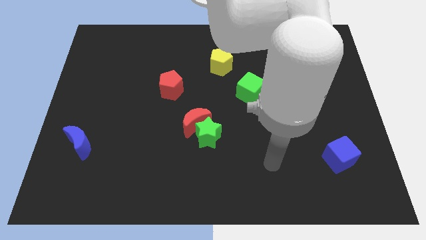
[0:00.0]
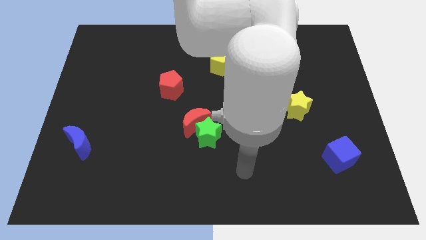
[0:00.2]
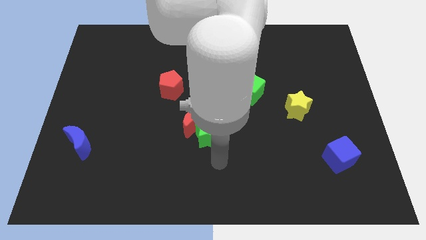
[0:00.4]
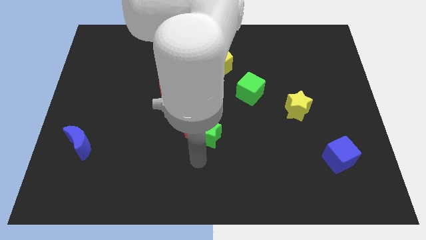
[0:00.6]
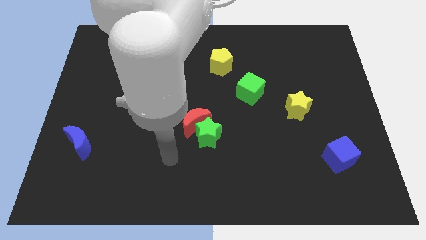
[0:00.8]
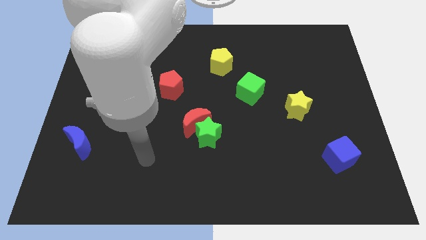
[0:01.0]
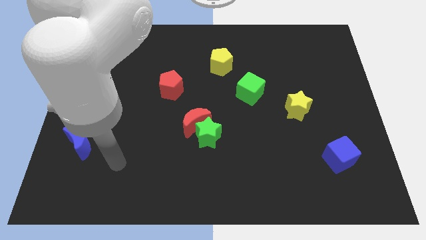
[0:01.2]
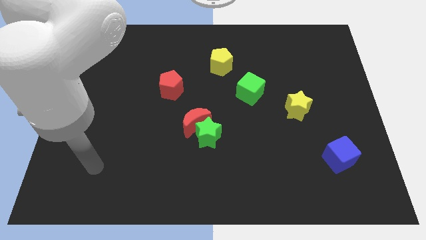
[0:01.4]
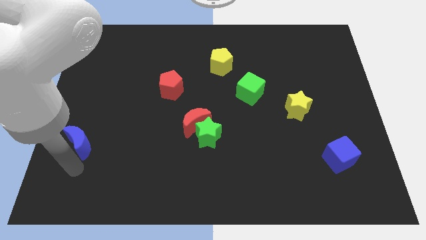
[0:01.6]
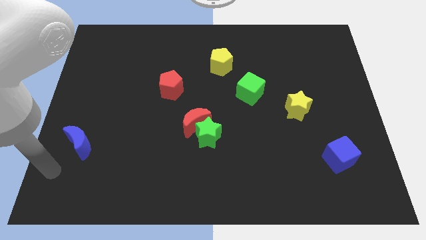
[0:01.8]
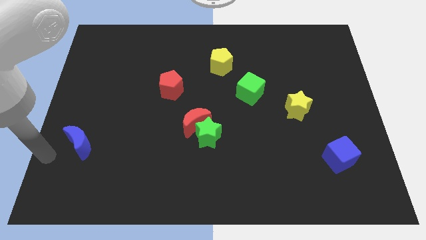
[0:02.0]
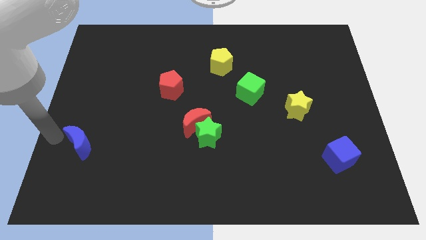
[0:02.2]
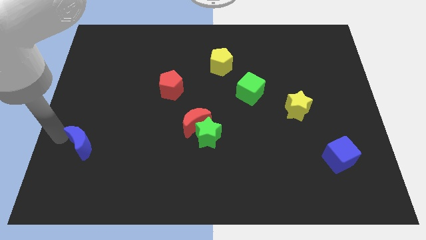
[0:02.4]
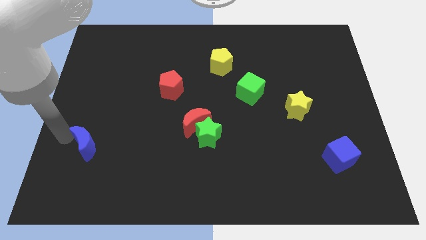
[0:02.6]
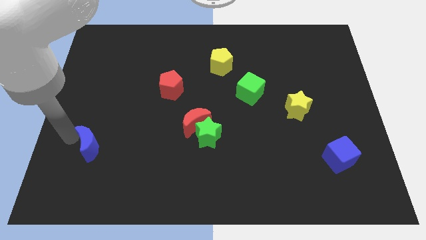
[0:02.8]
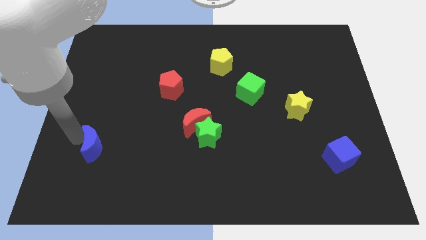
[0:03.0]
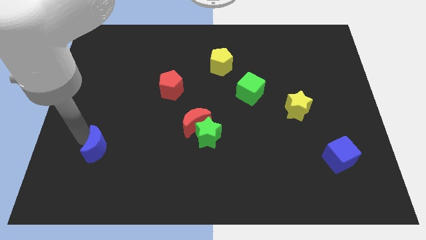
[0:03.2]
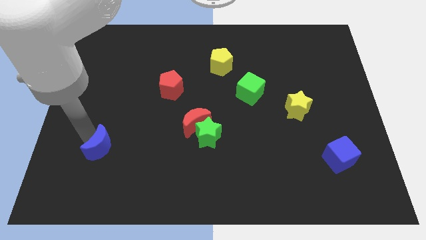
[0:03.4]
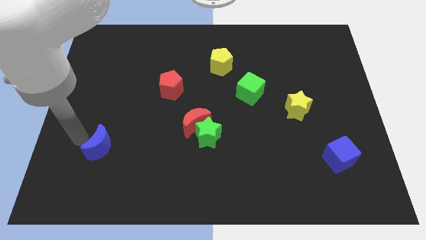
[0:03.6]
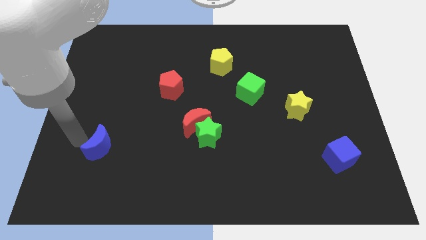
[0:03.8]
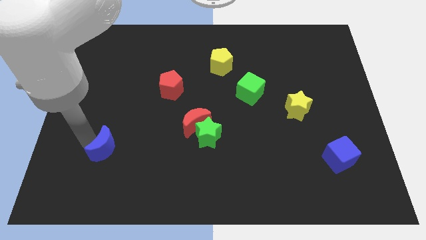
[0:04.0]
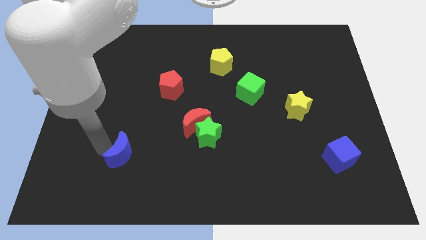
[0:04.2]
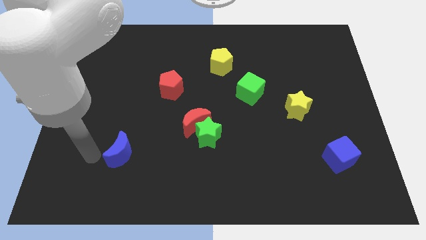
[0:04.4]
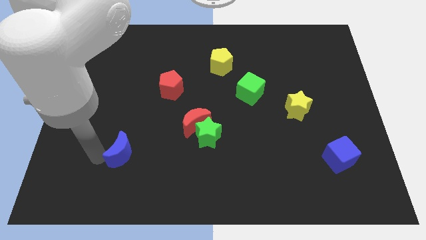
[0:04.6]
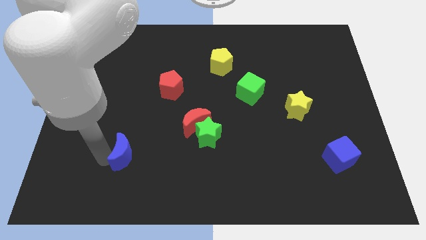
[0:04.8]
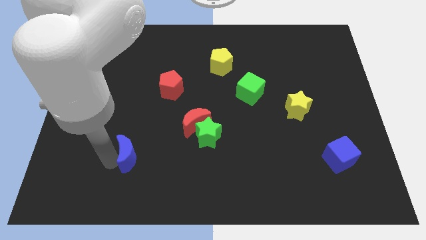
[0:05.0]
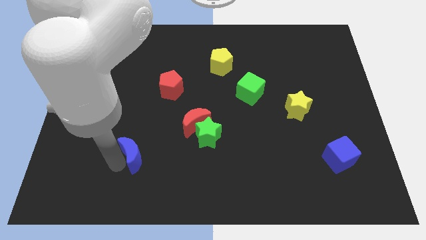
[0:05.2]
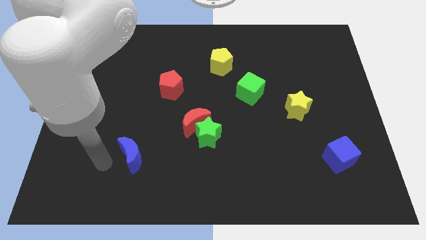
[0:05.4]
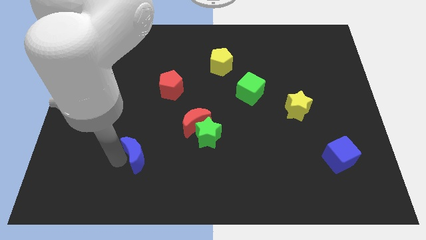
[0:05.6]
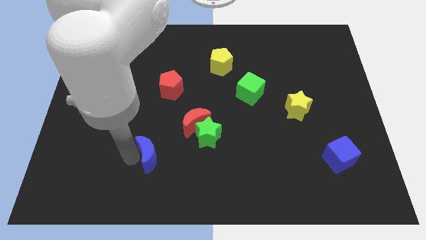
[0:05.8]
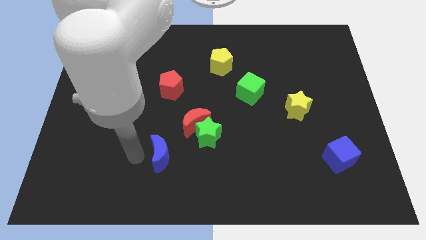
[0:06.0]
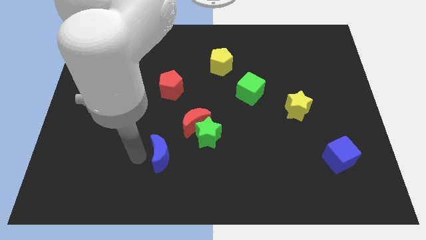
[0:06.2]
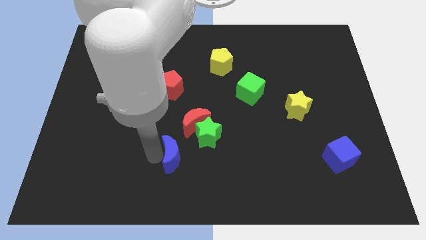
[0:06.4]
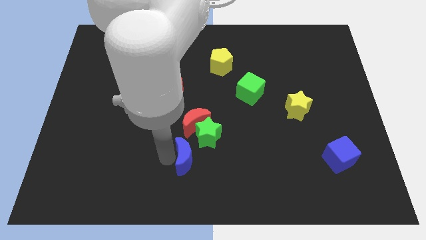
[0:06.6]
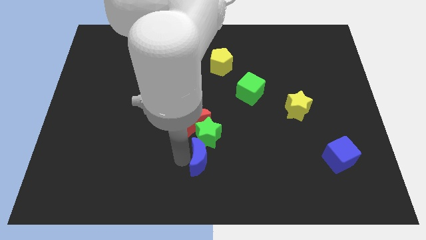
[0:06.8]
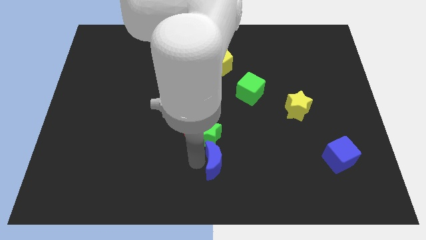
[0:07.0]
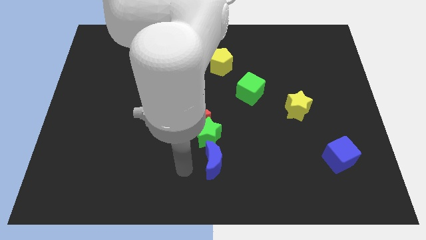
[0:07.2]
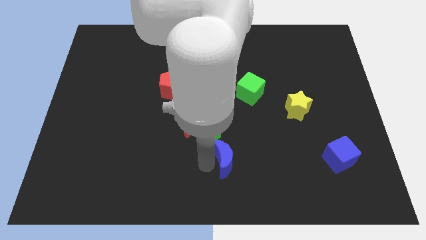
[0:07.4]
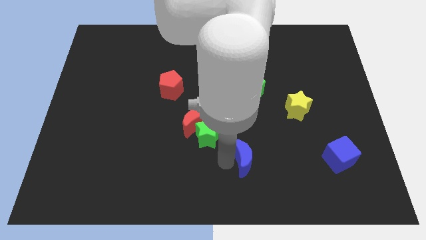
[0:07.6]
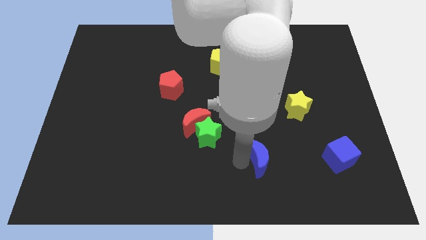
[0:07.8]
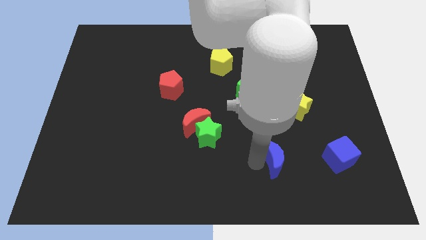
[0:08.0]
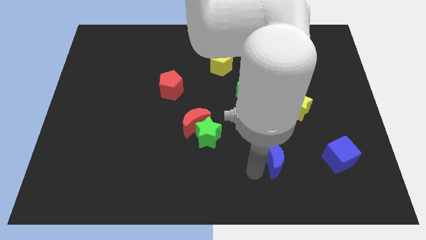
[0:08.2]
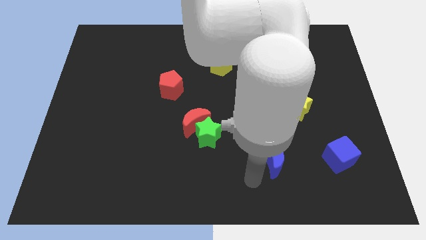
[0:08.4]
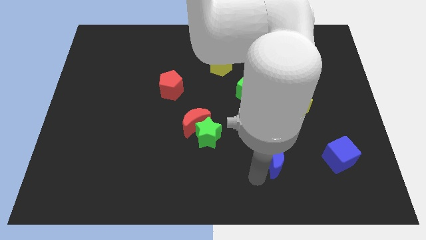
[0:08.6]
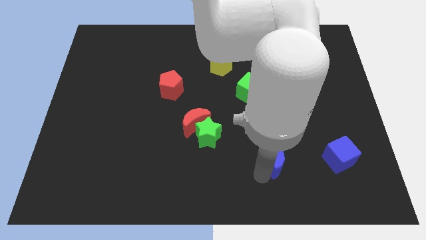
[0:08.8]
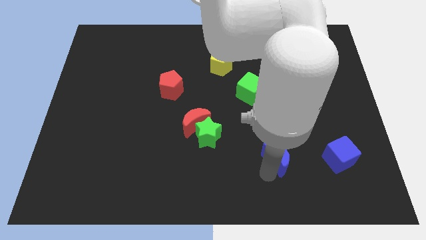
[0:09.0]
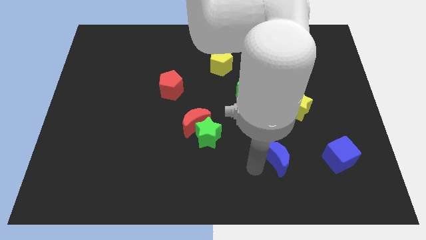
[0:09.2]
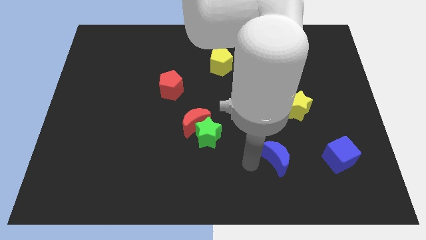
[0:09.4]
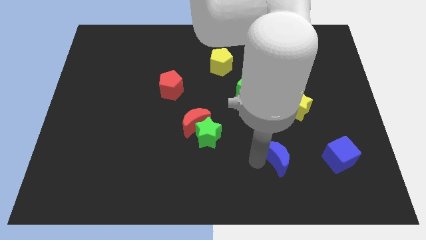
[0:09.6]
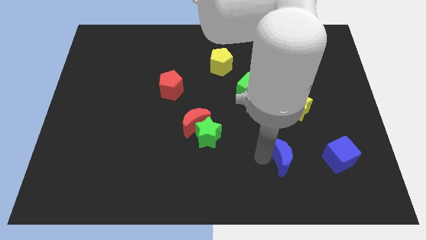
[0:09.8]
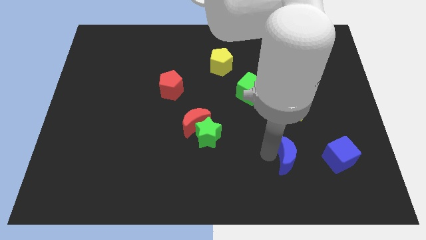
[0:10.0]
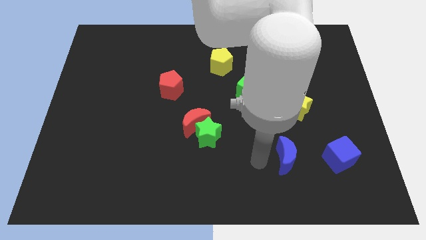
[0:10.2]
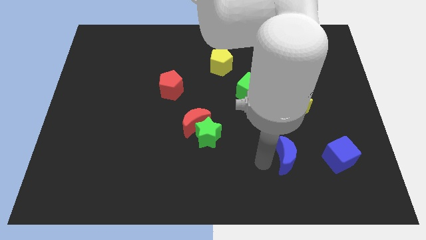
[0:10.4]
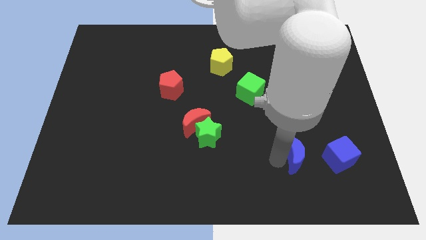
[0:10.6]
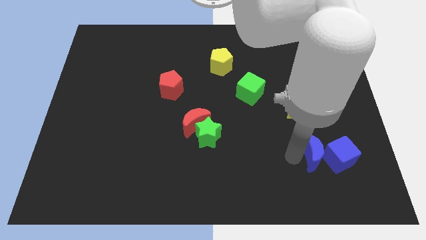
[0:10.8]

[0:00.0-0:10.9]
push the blue moon to the blue cube

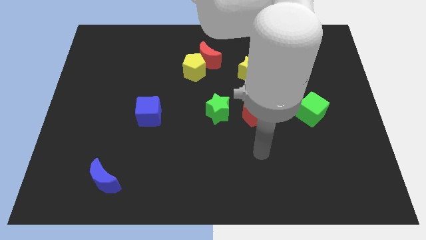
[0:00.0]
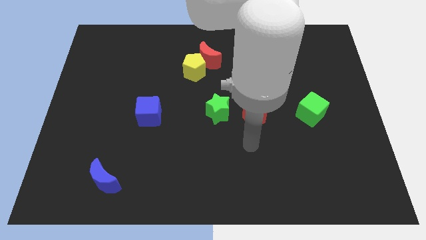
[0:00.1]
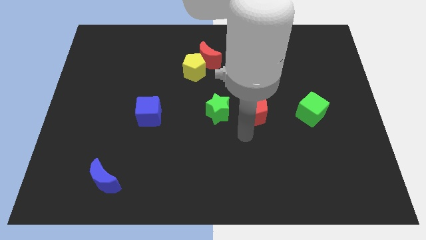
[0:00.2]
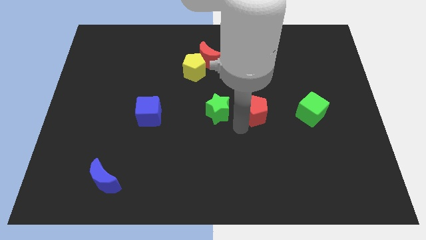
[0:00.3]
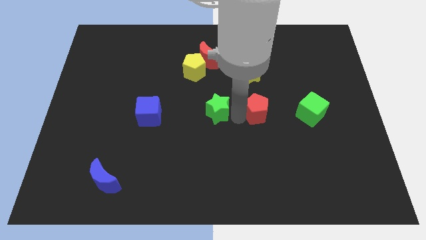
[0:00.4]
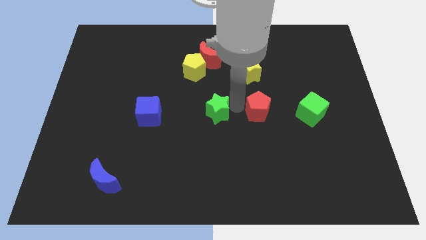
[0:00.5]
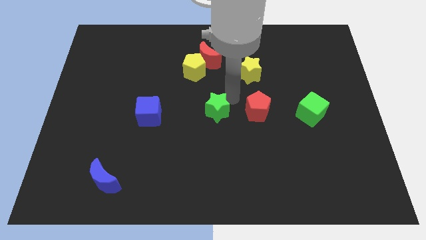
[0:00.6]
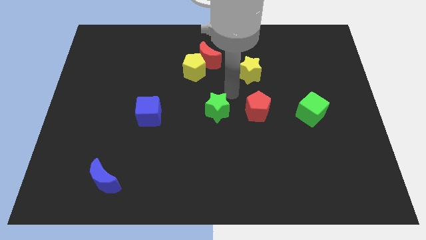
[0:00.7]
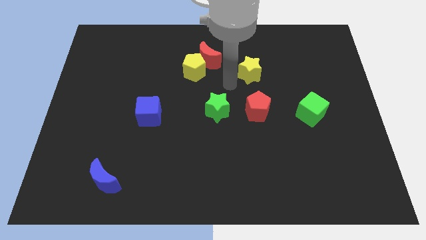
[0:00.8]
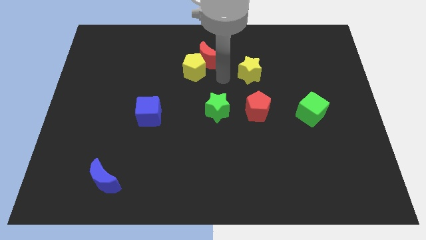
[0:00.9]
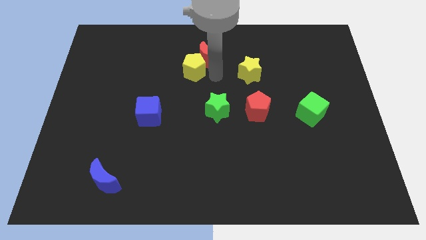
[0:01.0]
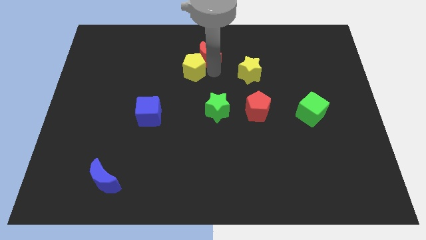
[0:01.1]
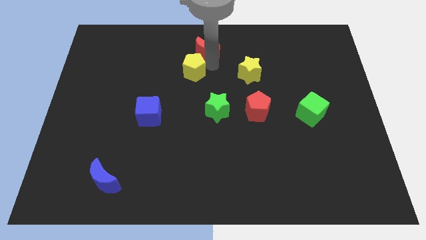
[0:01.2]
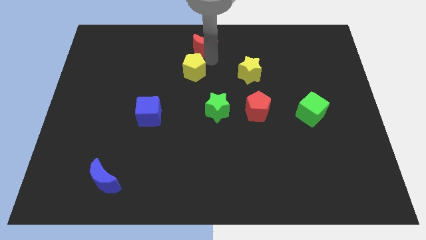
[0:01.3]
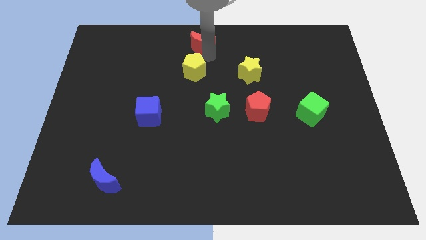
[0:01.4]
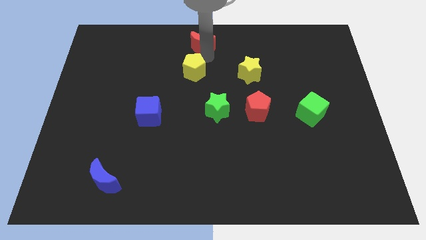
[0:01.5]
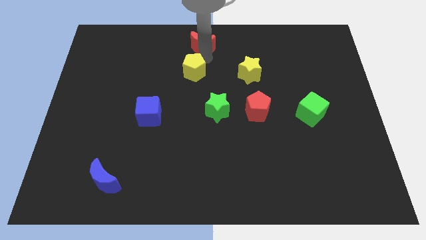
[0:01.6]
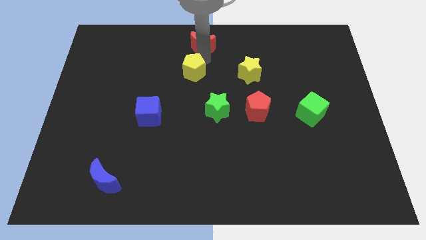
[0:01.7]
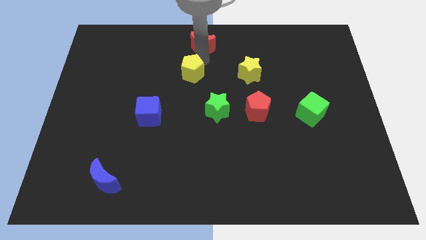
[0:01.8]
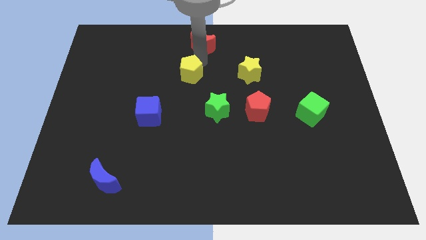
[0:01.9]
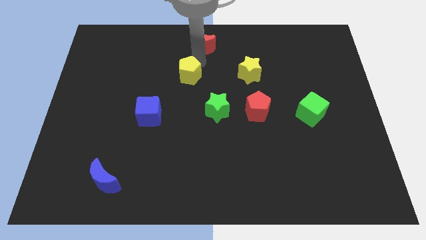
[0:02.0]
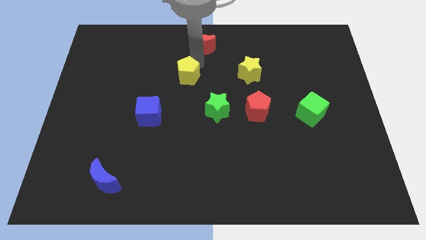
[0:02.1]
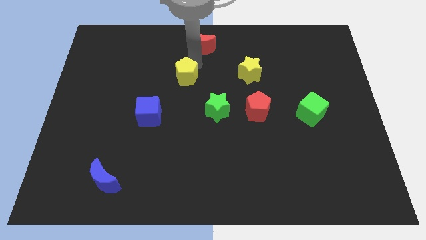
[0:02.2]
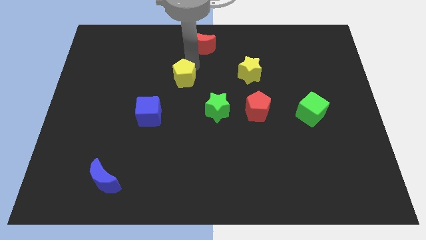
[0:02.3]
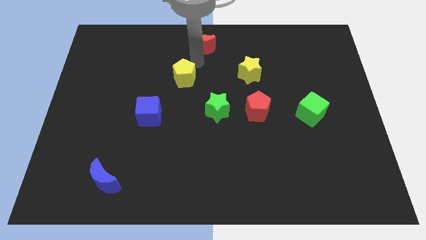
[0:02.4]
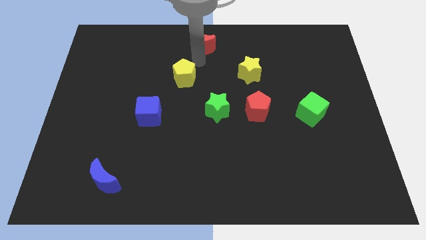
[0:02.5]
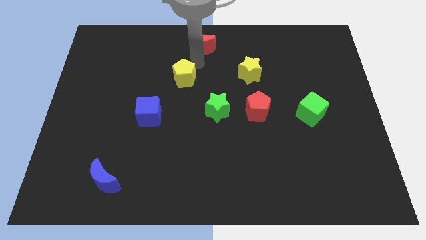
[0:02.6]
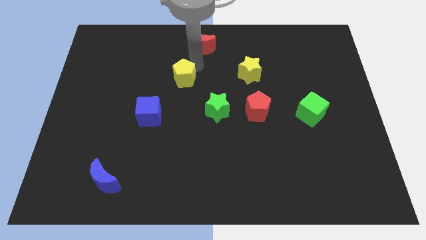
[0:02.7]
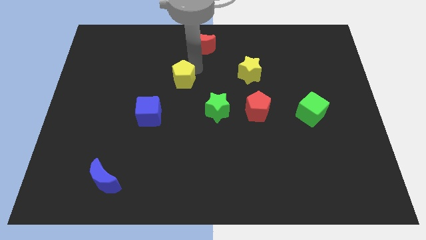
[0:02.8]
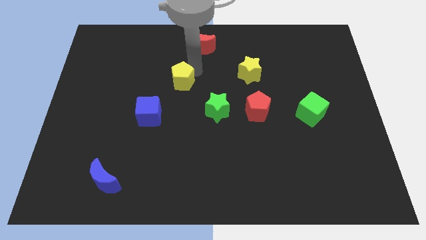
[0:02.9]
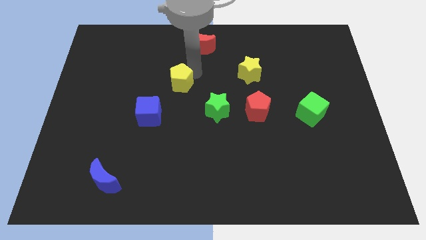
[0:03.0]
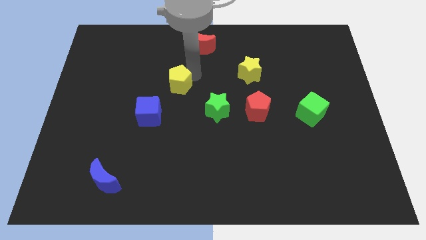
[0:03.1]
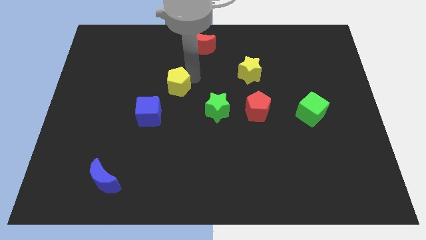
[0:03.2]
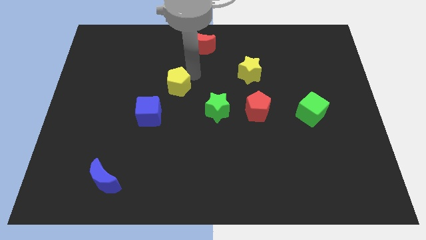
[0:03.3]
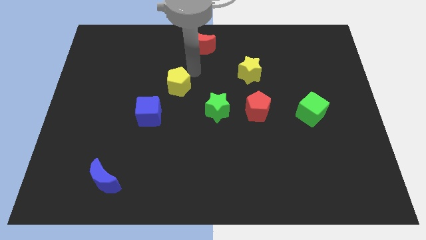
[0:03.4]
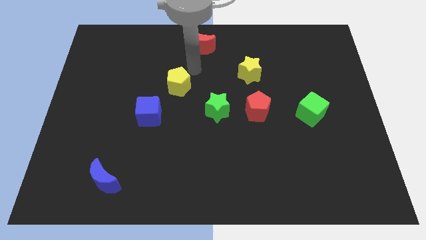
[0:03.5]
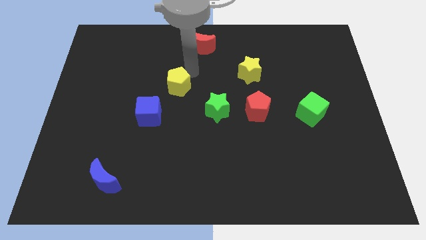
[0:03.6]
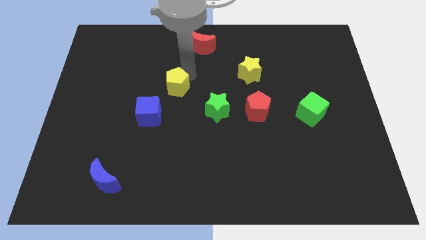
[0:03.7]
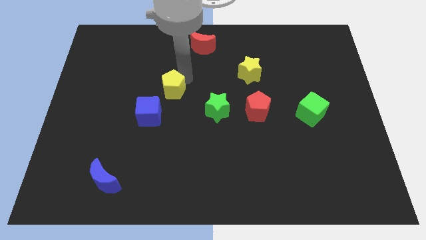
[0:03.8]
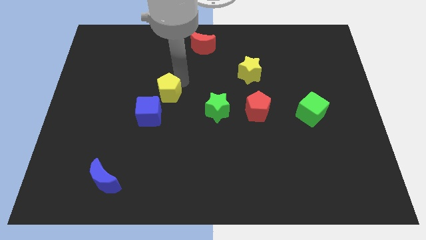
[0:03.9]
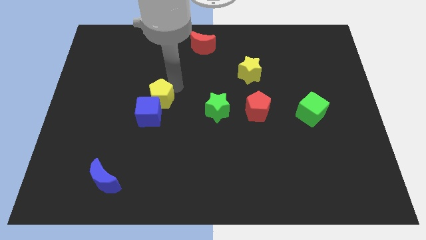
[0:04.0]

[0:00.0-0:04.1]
push the yellow pentagon close to the blue cube
